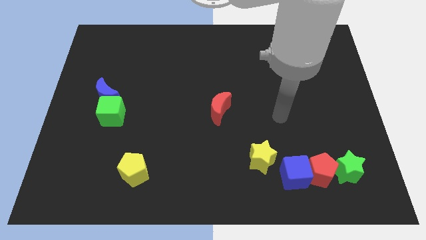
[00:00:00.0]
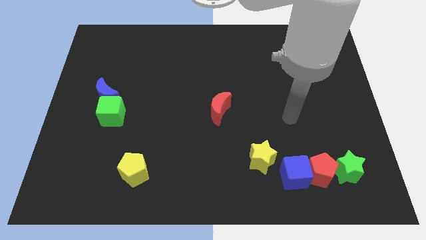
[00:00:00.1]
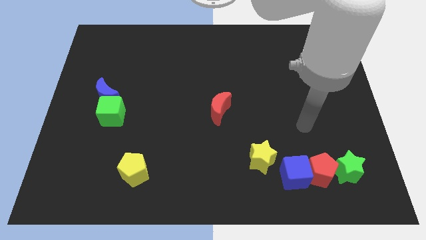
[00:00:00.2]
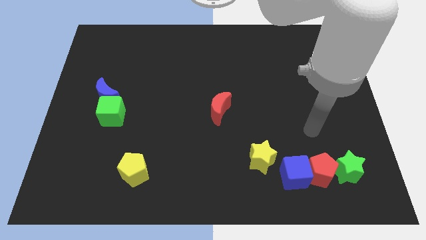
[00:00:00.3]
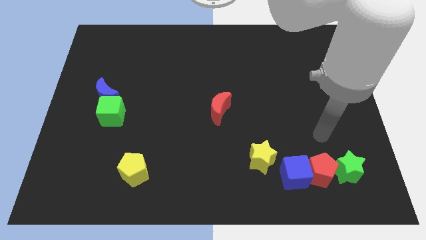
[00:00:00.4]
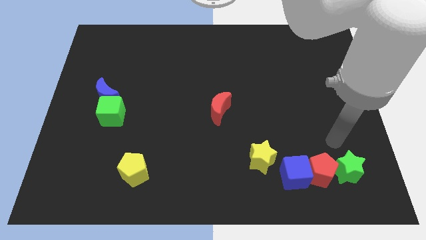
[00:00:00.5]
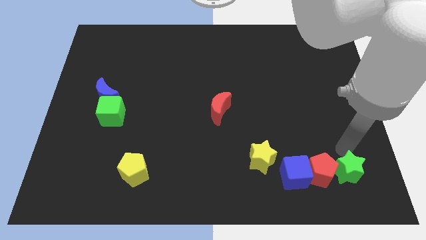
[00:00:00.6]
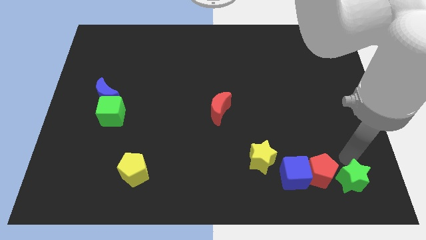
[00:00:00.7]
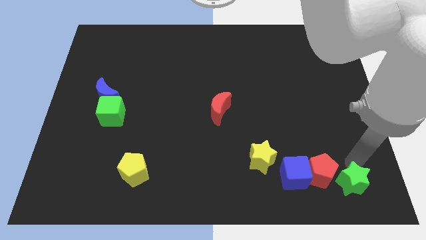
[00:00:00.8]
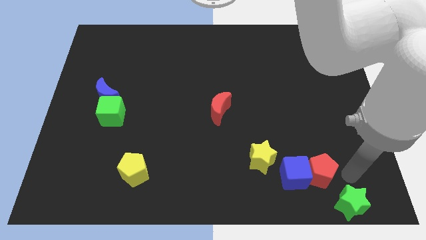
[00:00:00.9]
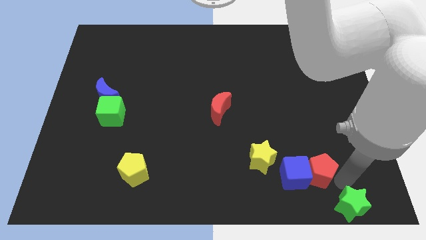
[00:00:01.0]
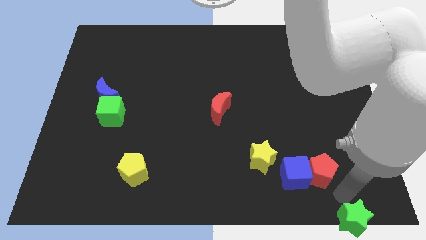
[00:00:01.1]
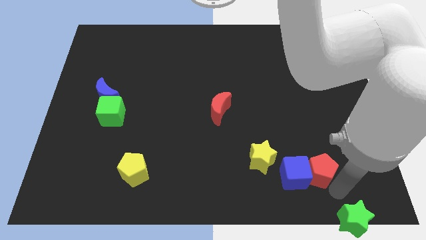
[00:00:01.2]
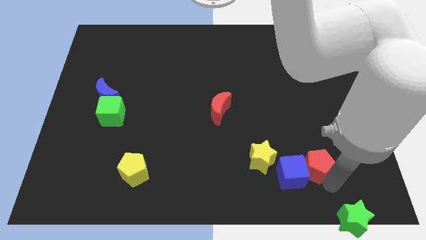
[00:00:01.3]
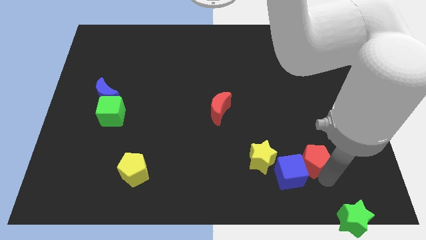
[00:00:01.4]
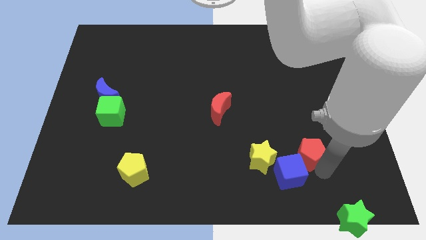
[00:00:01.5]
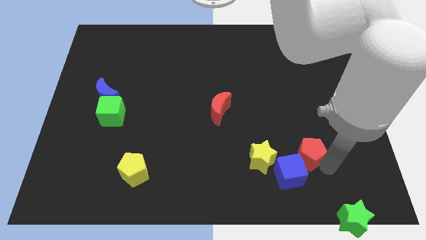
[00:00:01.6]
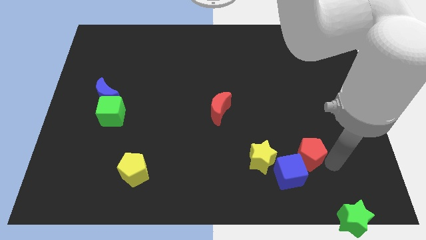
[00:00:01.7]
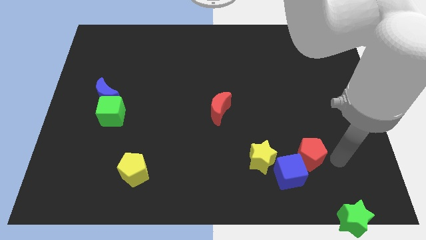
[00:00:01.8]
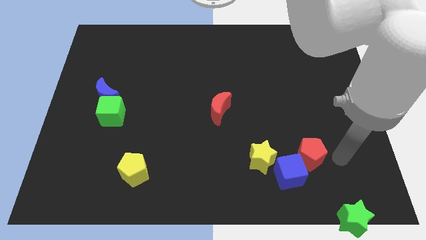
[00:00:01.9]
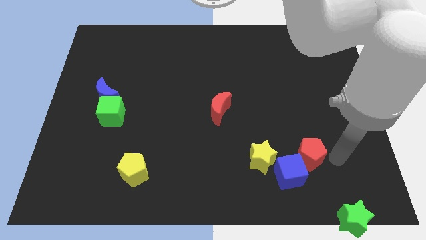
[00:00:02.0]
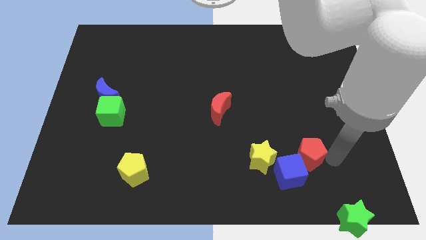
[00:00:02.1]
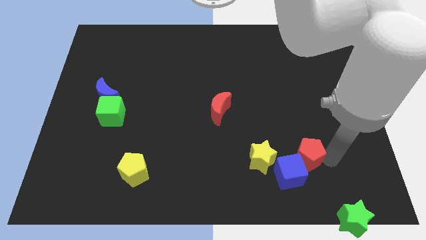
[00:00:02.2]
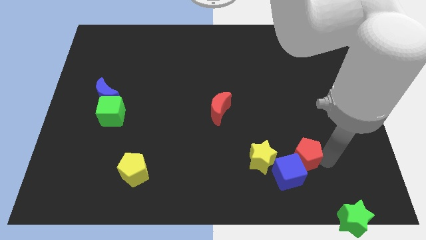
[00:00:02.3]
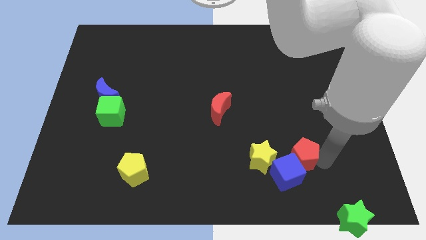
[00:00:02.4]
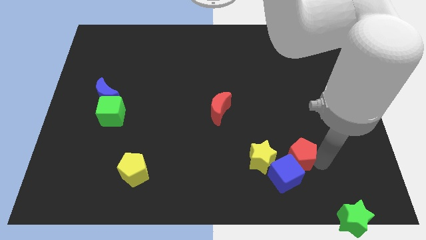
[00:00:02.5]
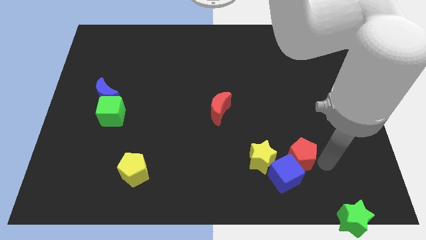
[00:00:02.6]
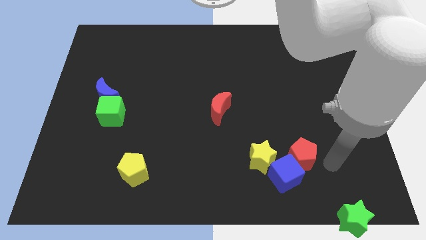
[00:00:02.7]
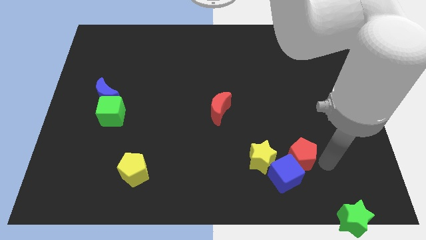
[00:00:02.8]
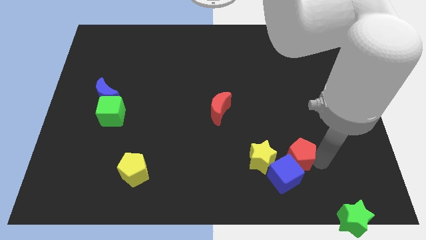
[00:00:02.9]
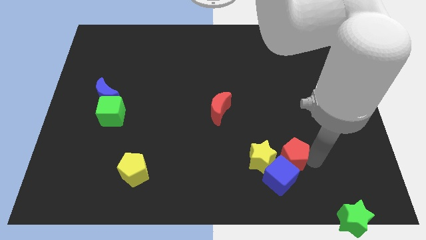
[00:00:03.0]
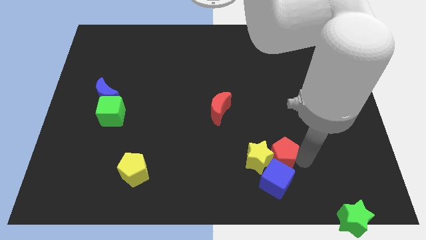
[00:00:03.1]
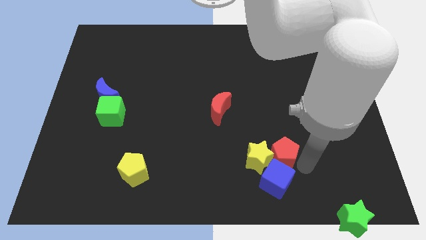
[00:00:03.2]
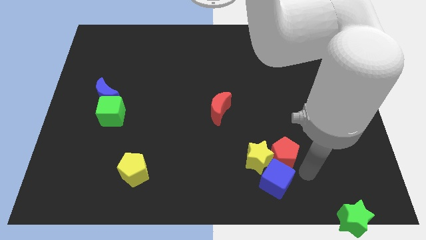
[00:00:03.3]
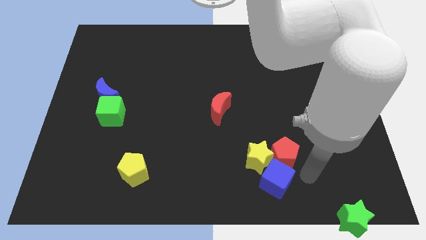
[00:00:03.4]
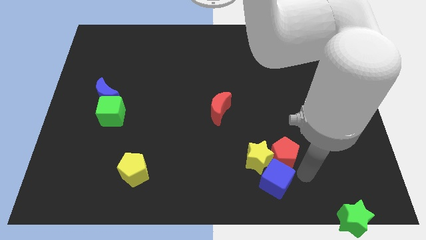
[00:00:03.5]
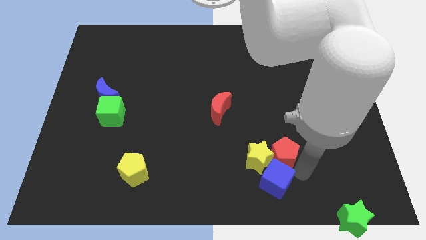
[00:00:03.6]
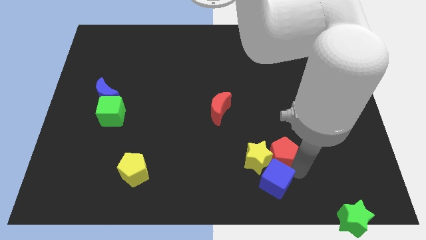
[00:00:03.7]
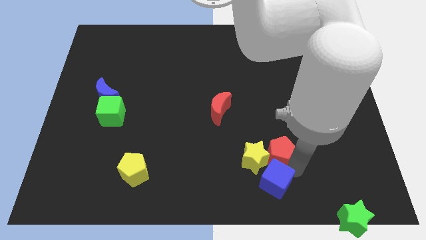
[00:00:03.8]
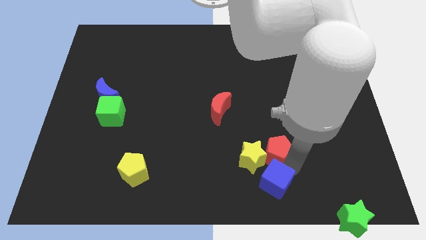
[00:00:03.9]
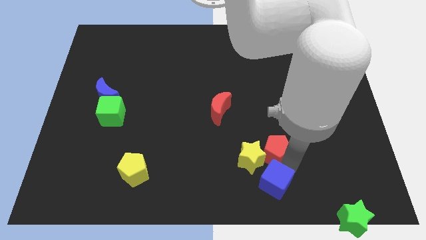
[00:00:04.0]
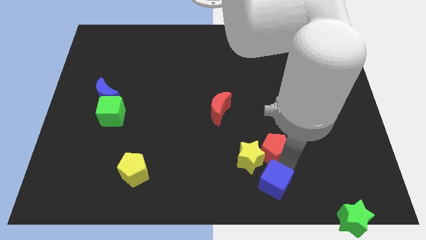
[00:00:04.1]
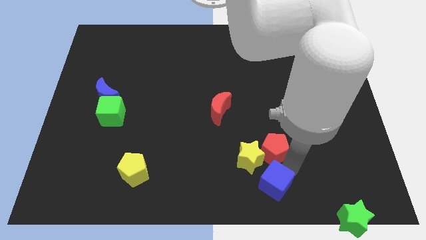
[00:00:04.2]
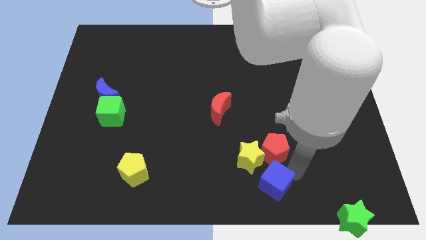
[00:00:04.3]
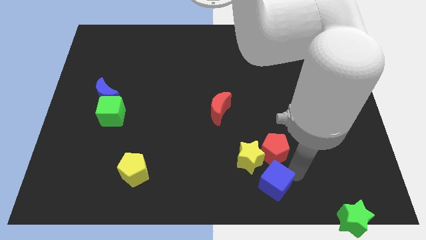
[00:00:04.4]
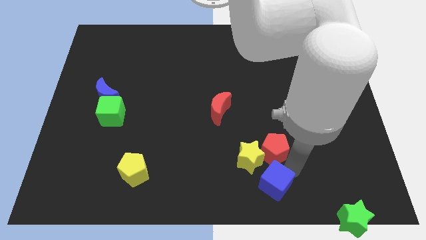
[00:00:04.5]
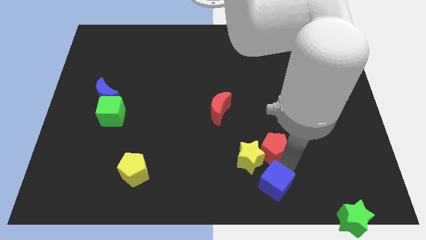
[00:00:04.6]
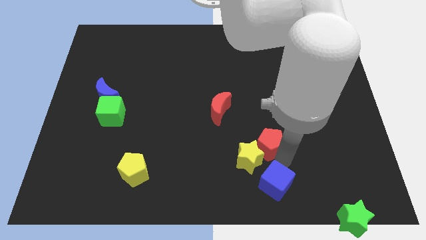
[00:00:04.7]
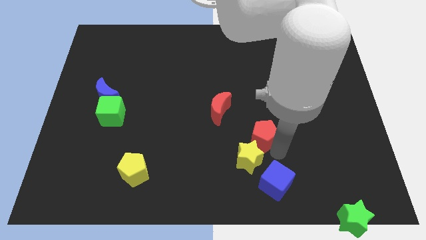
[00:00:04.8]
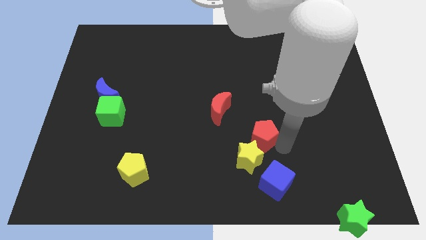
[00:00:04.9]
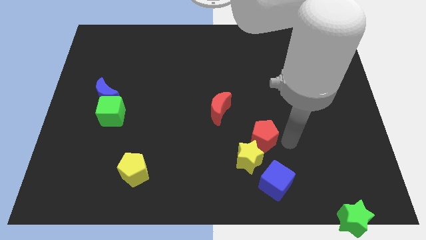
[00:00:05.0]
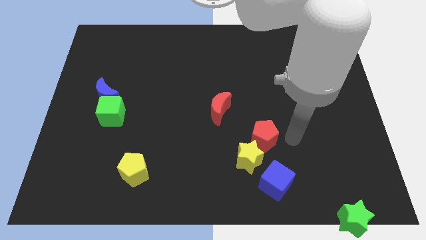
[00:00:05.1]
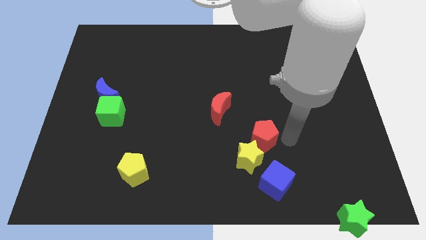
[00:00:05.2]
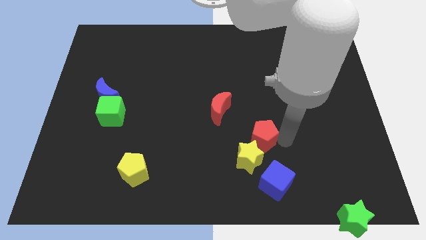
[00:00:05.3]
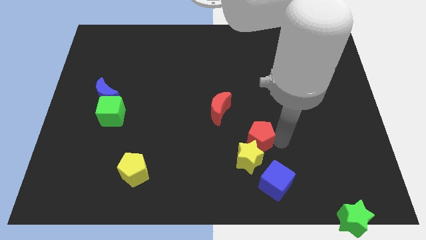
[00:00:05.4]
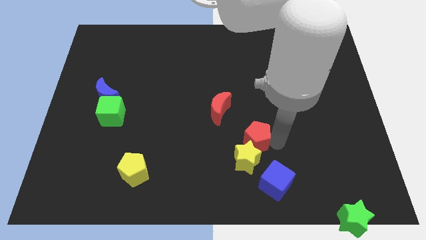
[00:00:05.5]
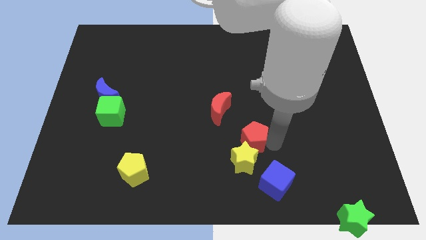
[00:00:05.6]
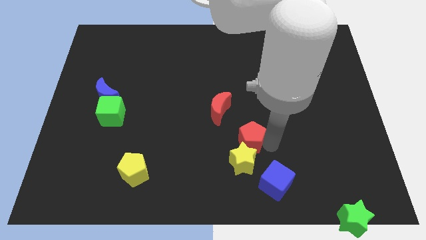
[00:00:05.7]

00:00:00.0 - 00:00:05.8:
move the red pentagon to the top left of the yellow star

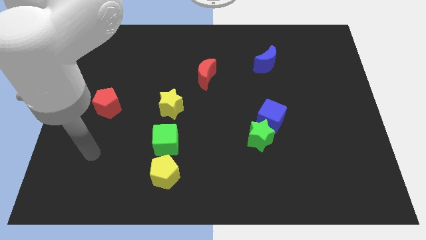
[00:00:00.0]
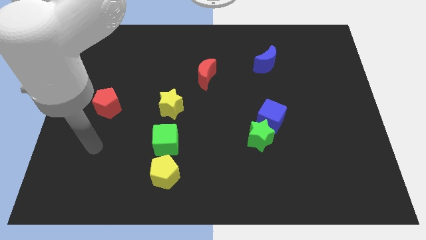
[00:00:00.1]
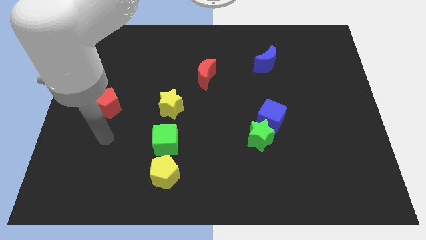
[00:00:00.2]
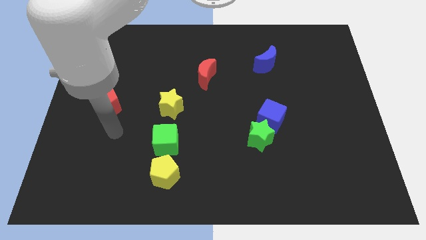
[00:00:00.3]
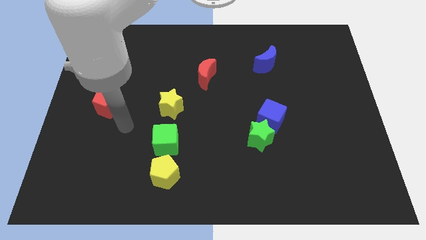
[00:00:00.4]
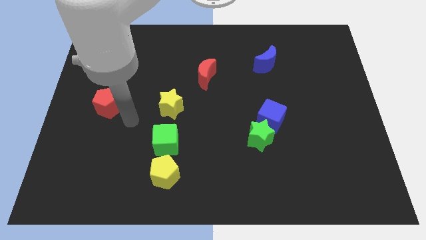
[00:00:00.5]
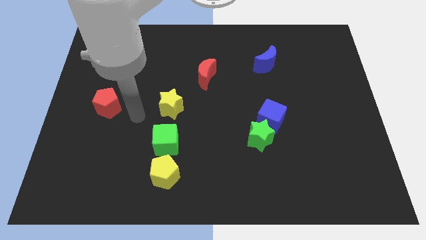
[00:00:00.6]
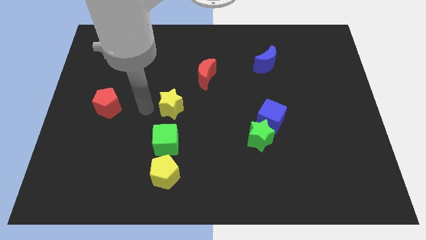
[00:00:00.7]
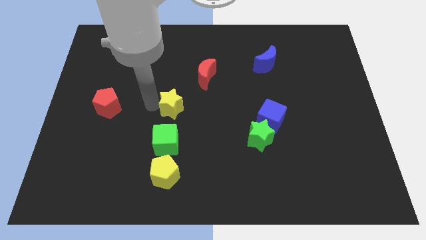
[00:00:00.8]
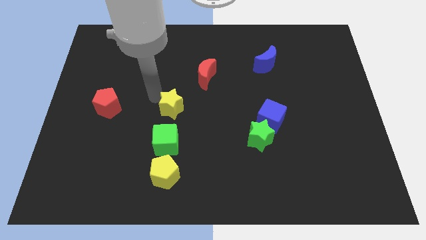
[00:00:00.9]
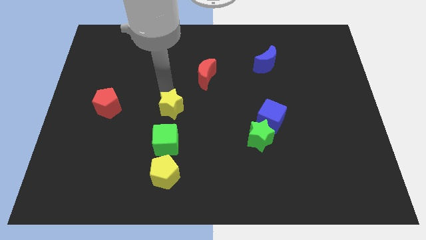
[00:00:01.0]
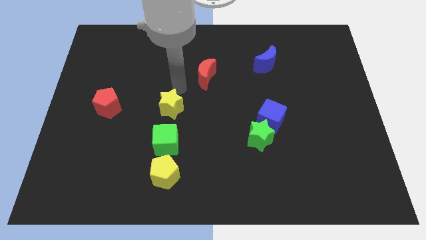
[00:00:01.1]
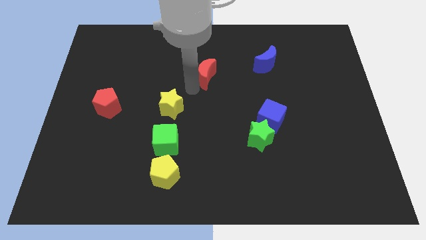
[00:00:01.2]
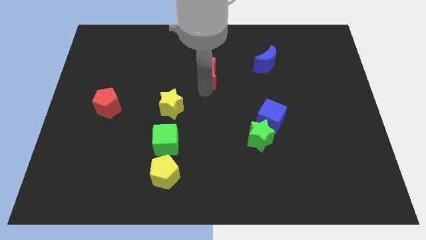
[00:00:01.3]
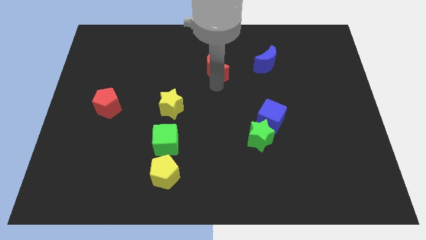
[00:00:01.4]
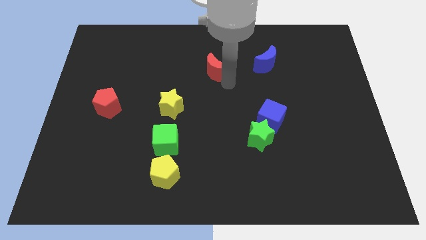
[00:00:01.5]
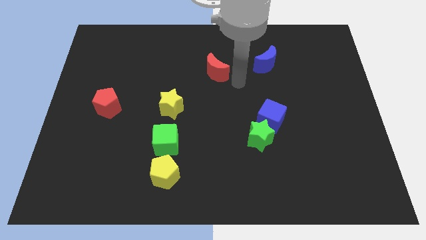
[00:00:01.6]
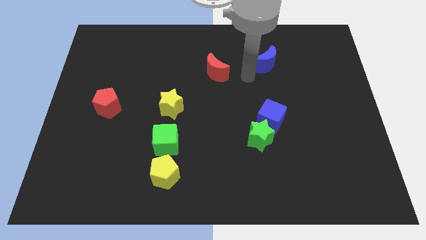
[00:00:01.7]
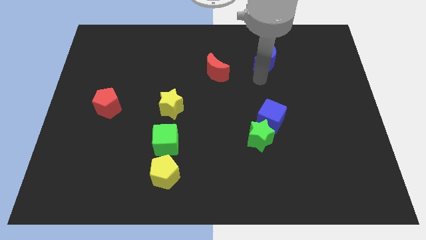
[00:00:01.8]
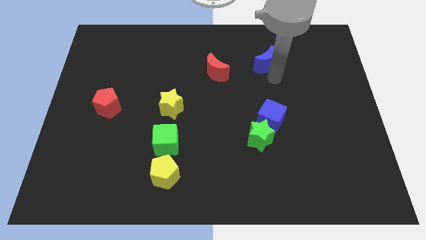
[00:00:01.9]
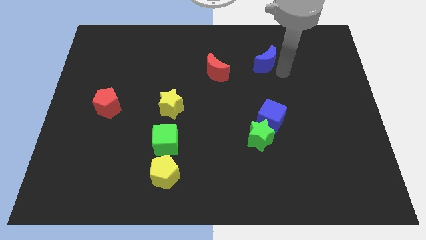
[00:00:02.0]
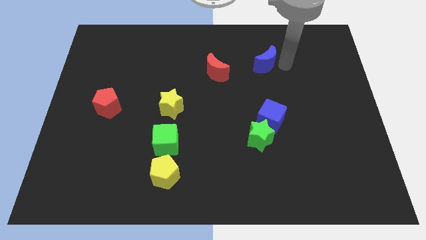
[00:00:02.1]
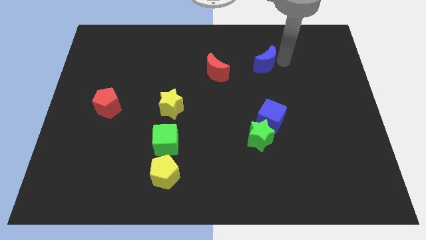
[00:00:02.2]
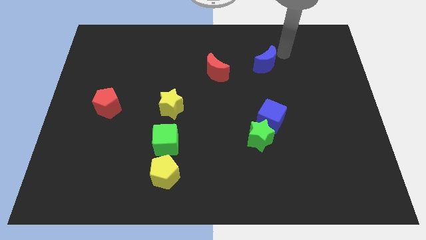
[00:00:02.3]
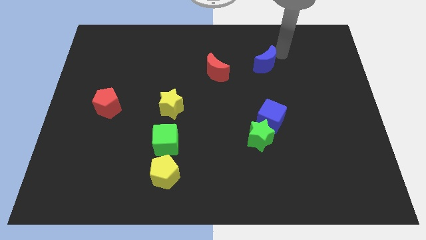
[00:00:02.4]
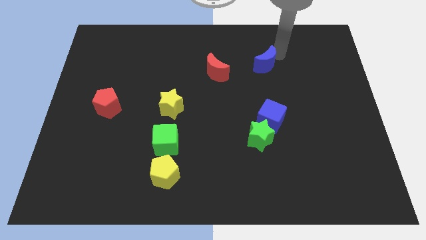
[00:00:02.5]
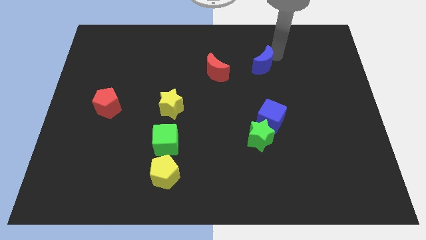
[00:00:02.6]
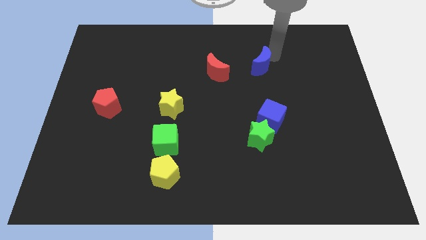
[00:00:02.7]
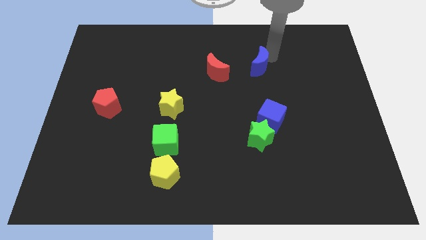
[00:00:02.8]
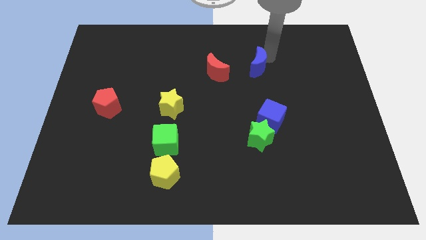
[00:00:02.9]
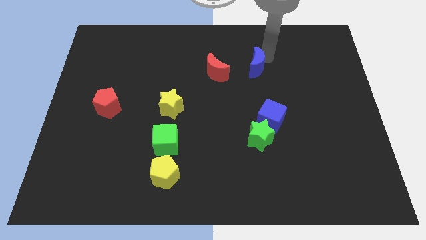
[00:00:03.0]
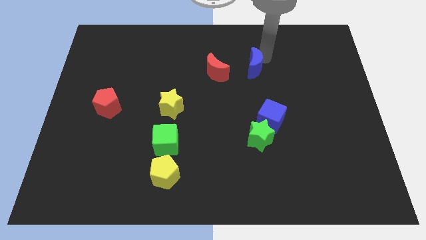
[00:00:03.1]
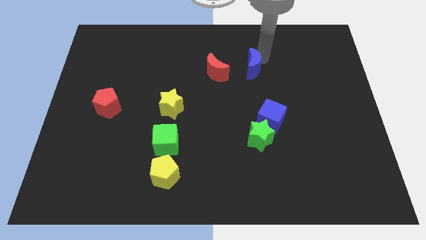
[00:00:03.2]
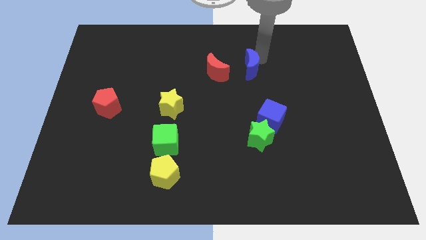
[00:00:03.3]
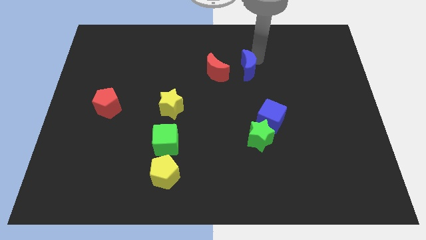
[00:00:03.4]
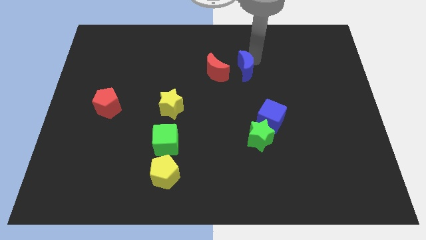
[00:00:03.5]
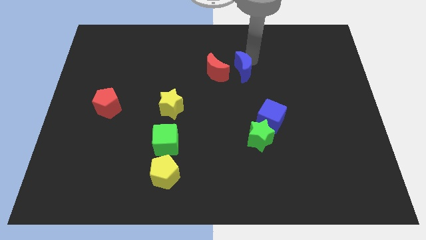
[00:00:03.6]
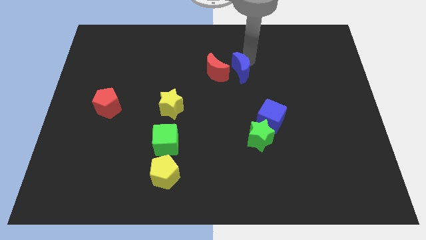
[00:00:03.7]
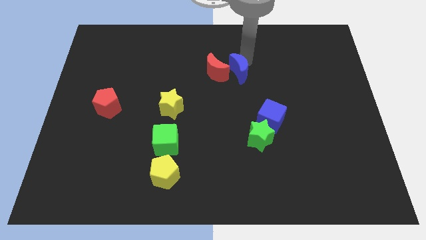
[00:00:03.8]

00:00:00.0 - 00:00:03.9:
push the blue moon to the bottom right side of the red moon
